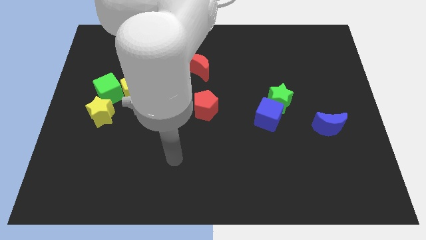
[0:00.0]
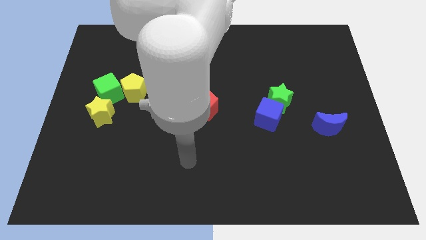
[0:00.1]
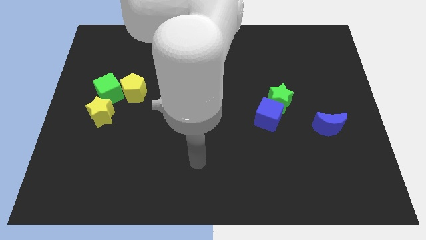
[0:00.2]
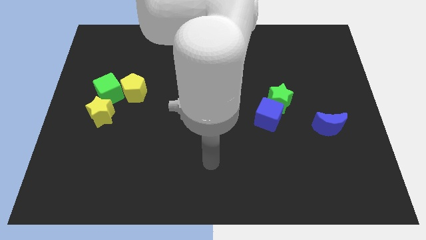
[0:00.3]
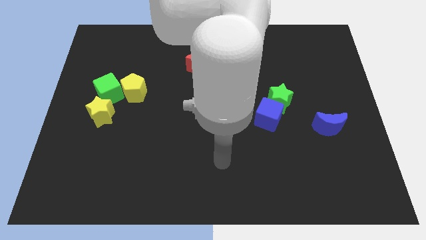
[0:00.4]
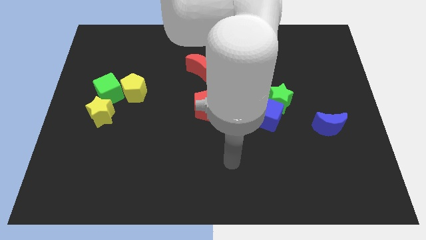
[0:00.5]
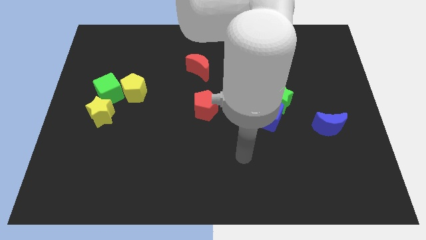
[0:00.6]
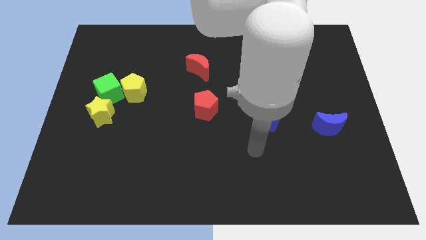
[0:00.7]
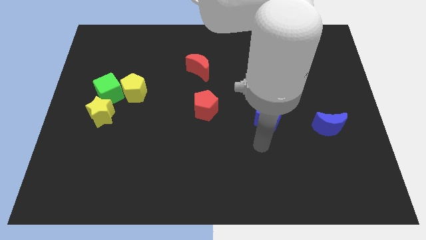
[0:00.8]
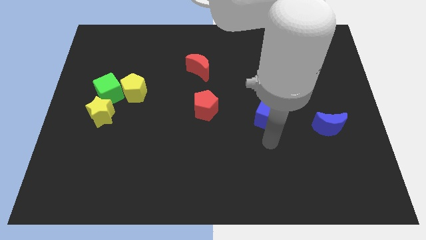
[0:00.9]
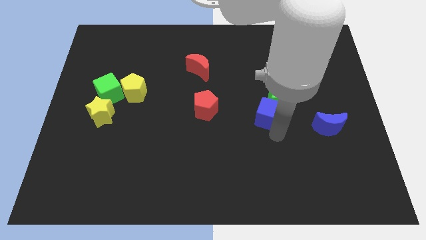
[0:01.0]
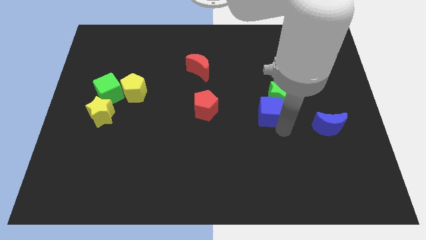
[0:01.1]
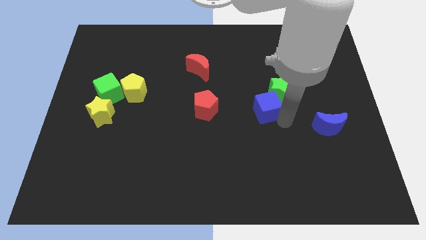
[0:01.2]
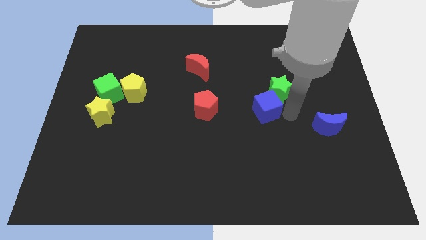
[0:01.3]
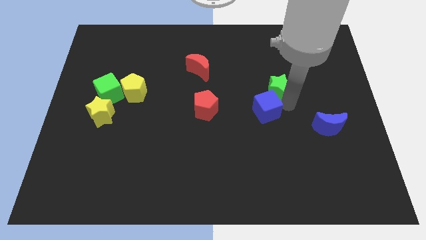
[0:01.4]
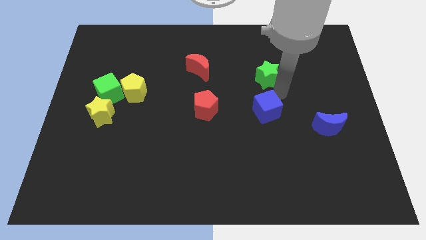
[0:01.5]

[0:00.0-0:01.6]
move the blue cube away from the green star

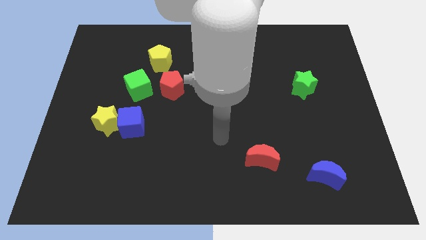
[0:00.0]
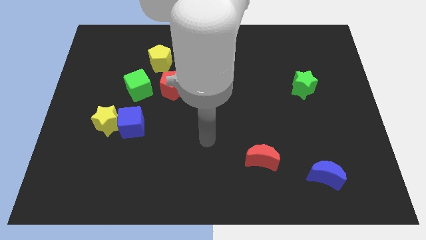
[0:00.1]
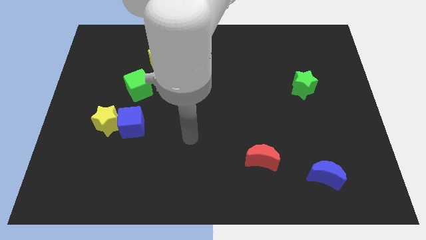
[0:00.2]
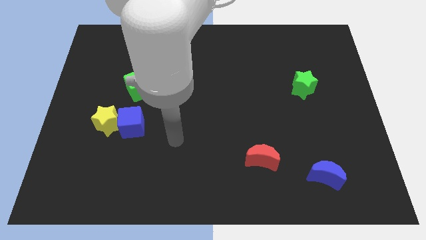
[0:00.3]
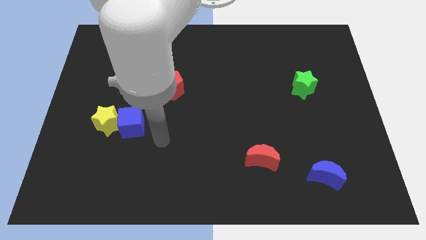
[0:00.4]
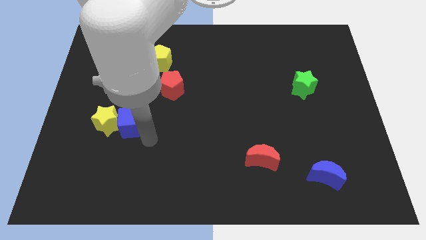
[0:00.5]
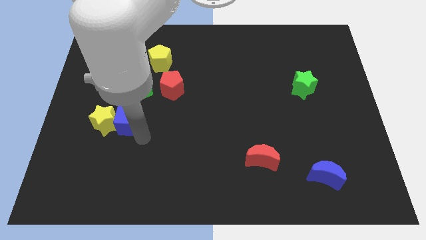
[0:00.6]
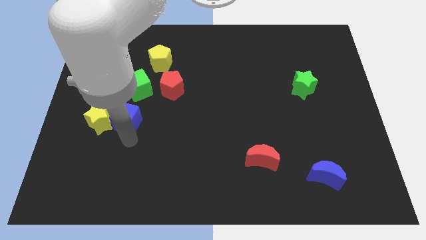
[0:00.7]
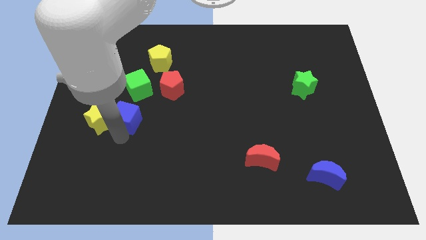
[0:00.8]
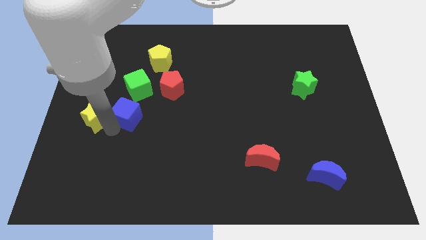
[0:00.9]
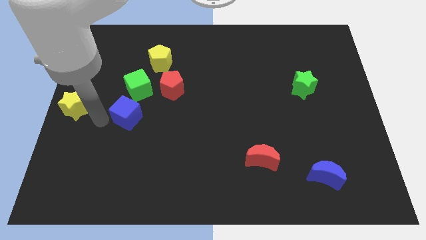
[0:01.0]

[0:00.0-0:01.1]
pull the blue cube apart from the yellow star

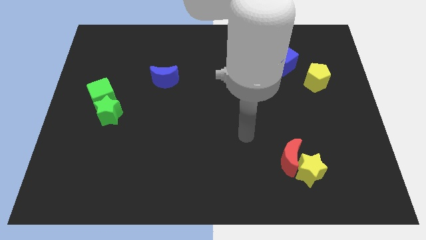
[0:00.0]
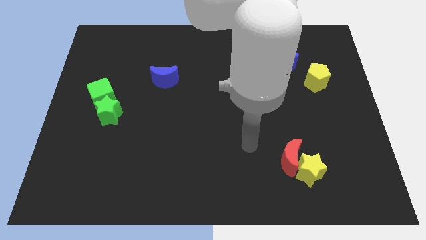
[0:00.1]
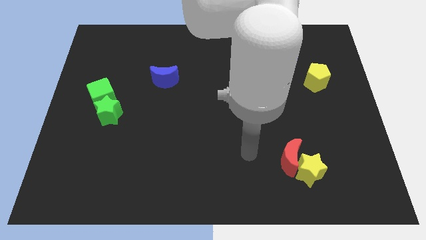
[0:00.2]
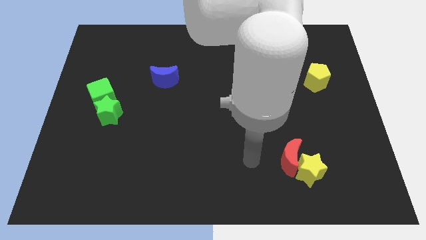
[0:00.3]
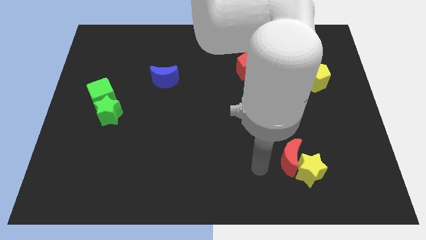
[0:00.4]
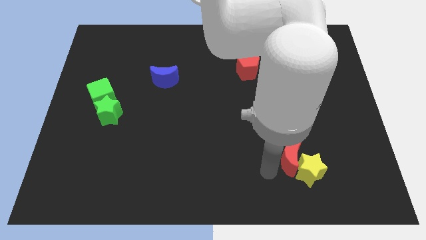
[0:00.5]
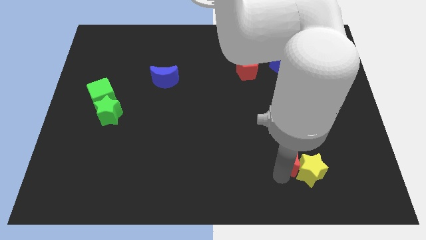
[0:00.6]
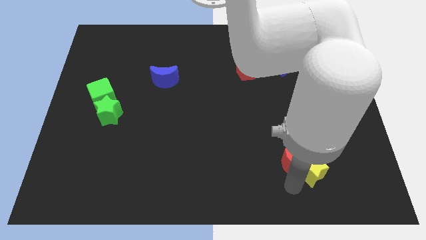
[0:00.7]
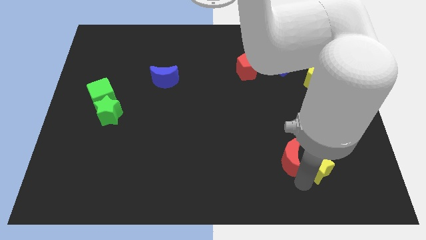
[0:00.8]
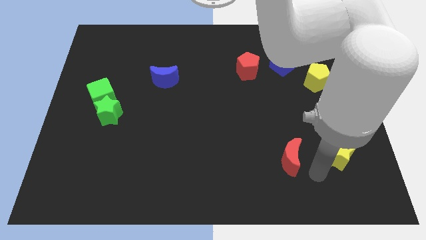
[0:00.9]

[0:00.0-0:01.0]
separate the red moon from the yellow star

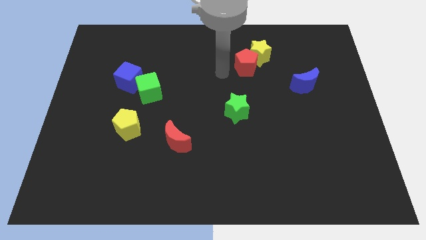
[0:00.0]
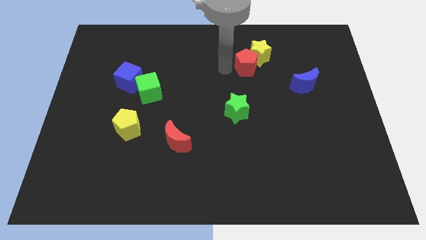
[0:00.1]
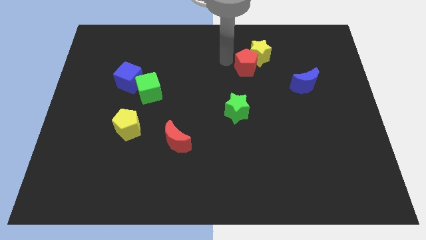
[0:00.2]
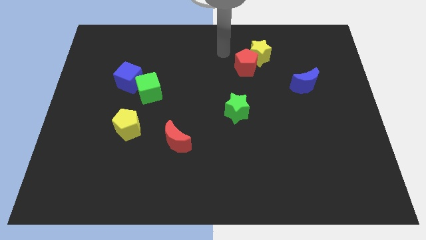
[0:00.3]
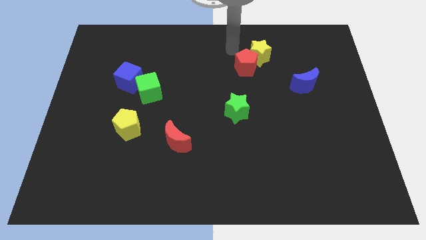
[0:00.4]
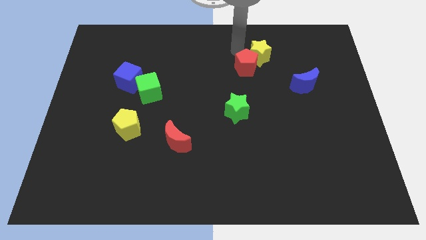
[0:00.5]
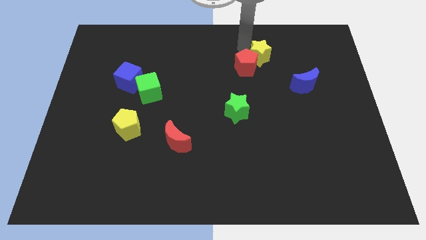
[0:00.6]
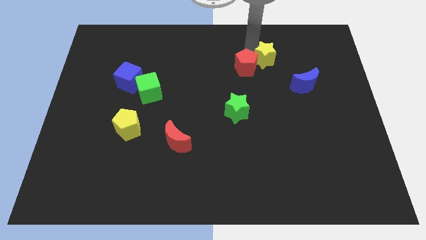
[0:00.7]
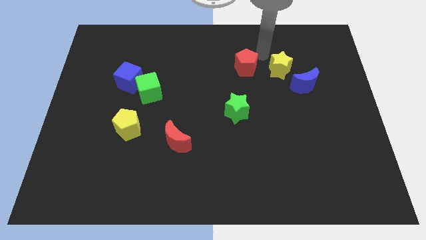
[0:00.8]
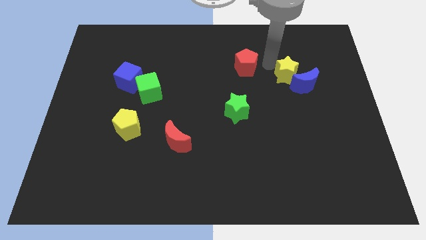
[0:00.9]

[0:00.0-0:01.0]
pull the red pentagon apart from the yellow star

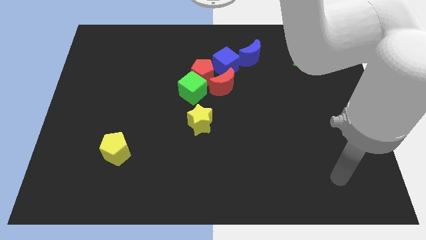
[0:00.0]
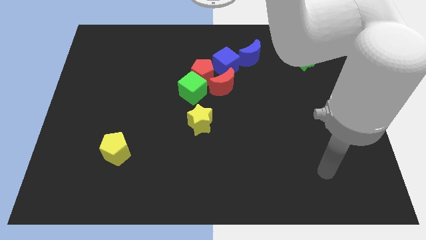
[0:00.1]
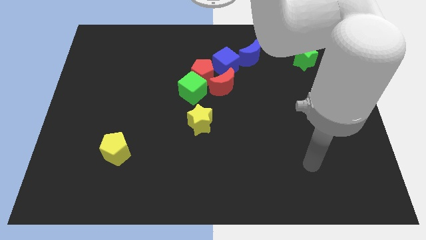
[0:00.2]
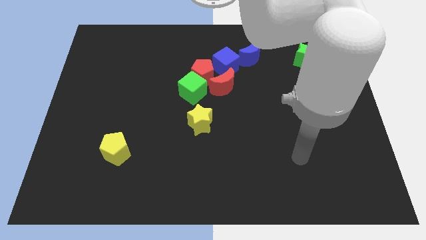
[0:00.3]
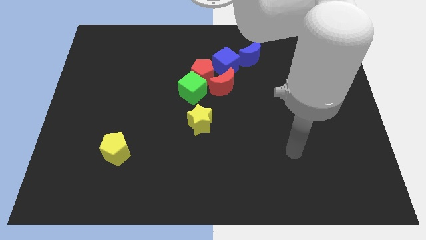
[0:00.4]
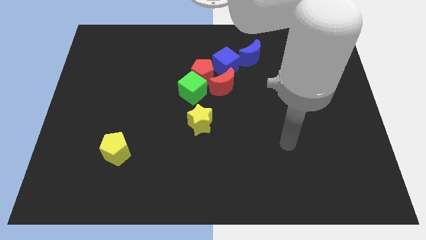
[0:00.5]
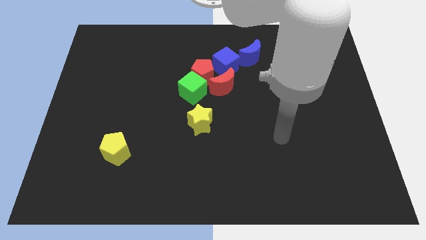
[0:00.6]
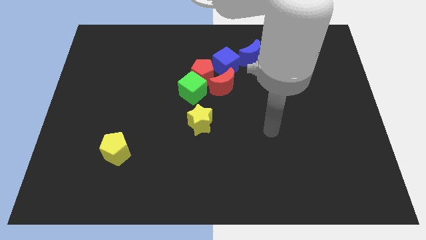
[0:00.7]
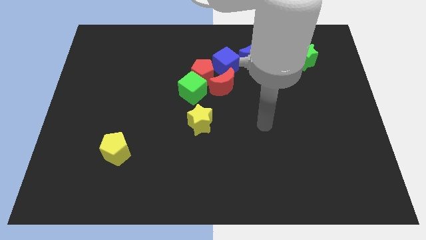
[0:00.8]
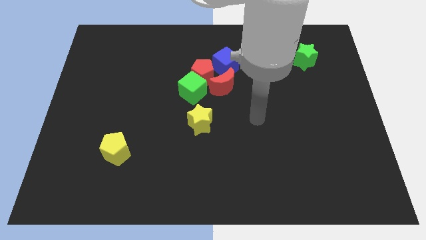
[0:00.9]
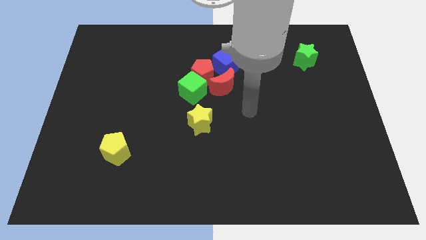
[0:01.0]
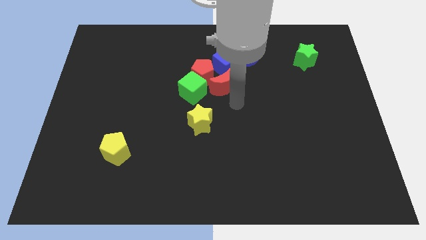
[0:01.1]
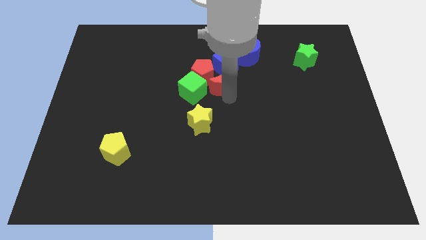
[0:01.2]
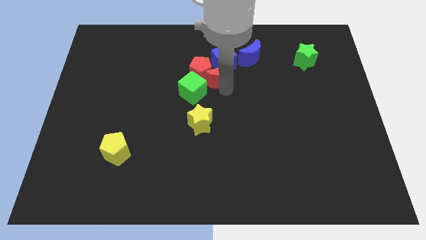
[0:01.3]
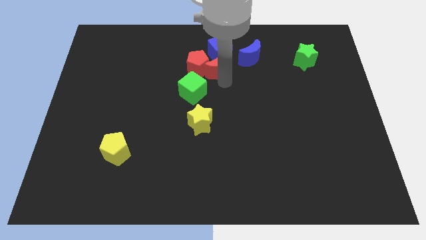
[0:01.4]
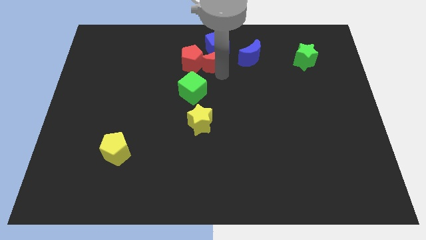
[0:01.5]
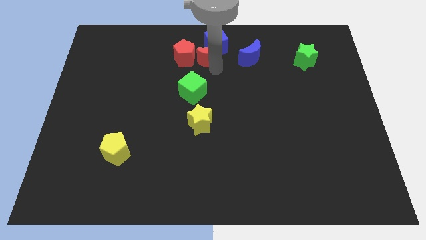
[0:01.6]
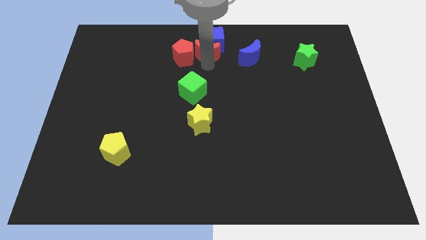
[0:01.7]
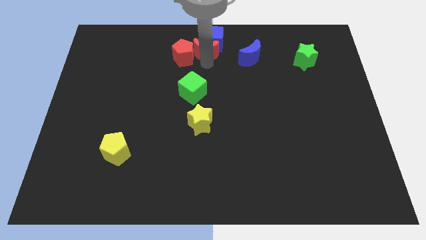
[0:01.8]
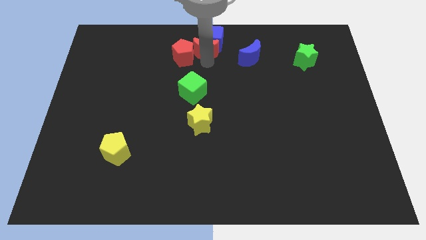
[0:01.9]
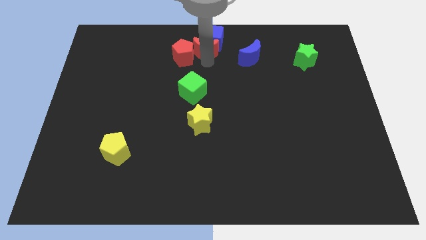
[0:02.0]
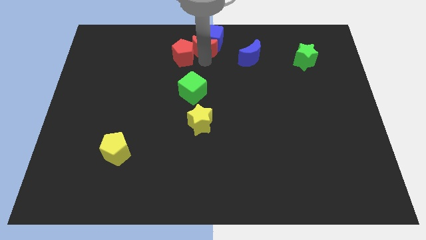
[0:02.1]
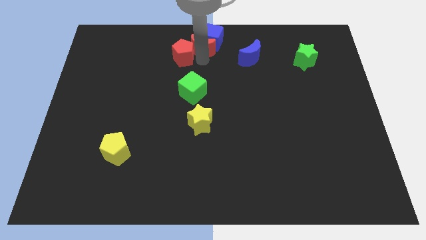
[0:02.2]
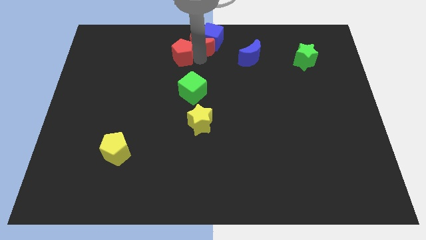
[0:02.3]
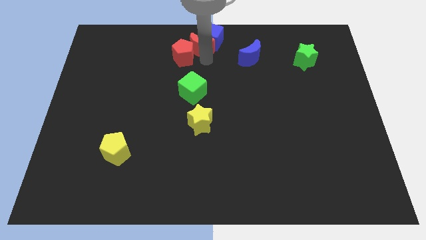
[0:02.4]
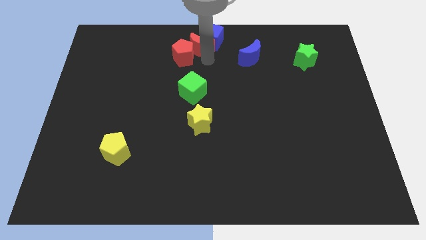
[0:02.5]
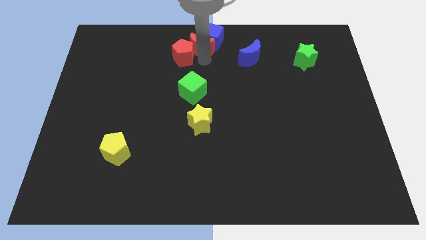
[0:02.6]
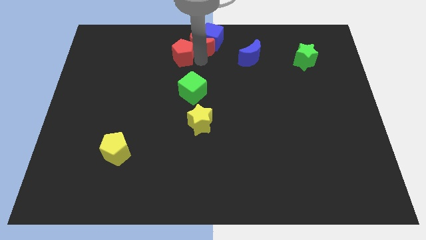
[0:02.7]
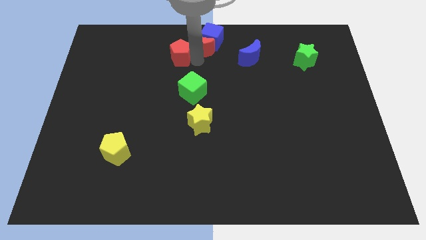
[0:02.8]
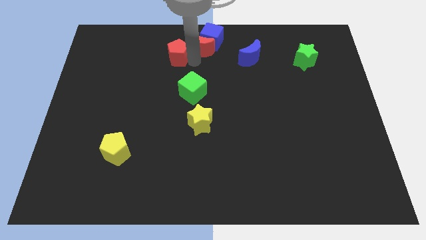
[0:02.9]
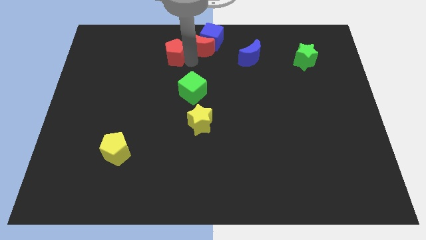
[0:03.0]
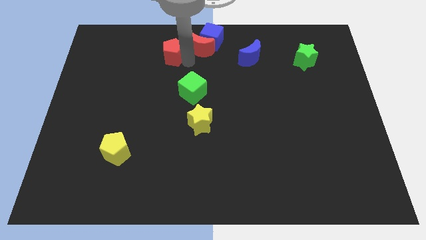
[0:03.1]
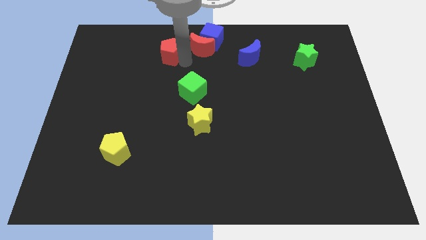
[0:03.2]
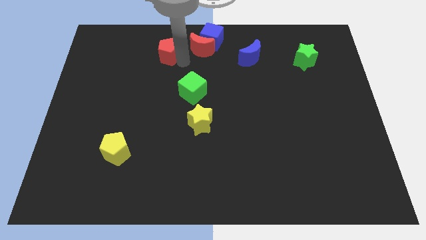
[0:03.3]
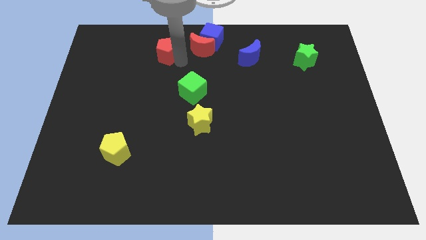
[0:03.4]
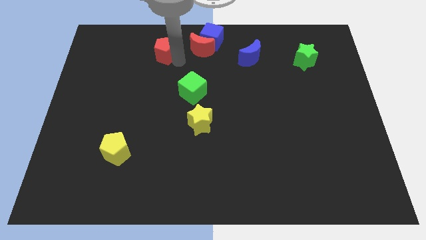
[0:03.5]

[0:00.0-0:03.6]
move the red pentagon away from the clump

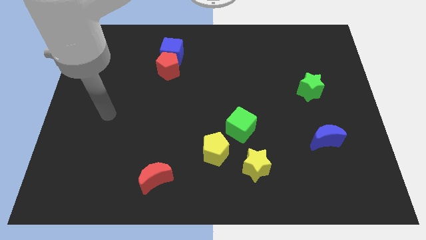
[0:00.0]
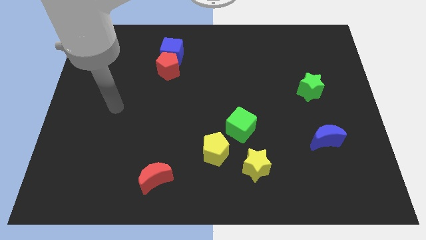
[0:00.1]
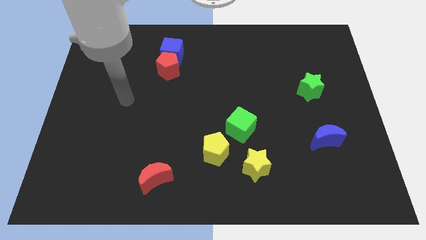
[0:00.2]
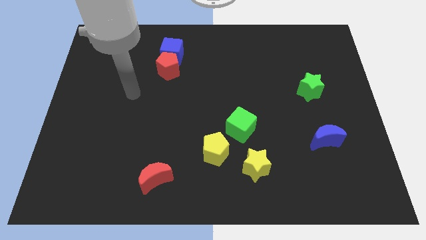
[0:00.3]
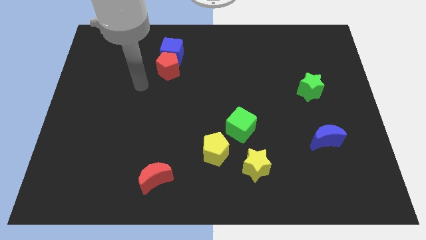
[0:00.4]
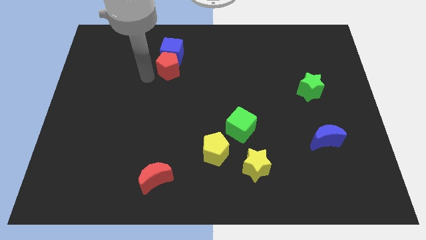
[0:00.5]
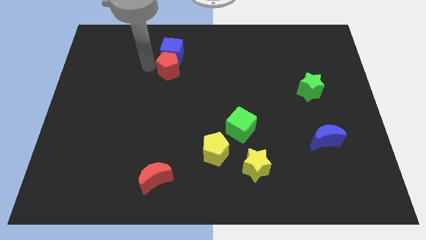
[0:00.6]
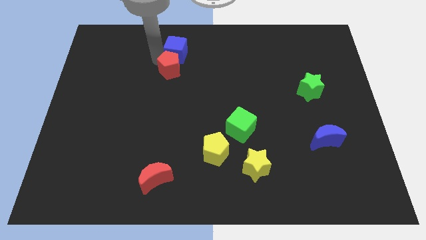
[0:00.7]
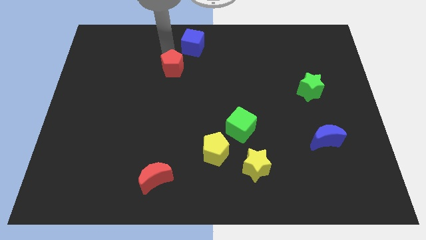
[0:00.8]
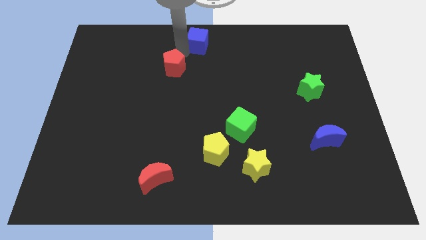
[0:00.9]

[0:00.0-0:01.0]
pull the red pentagon apart from the blue cube
